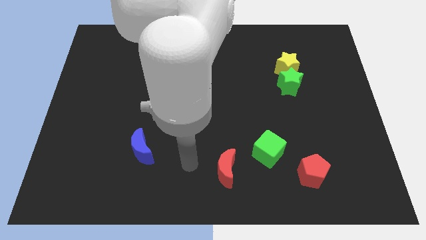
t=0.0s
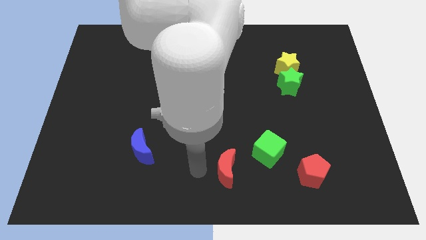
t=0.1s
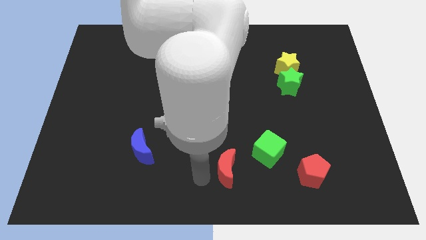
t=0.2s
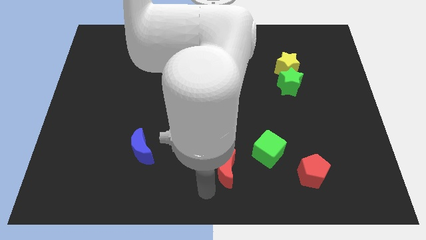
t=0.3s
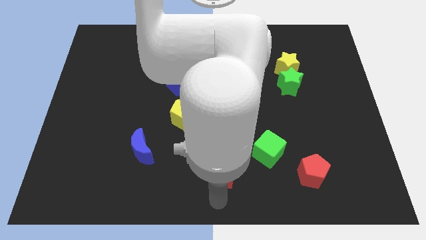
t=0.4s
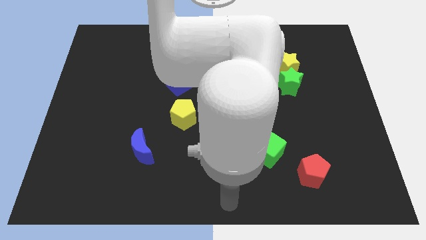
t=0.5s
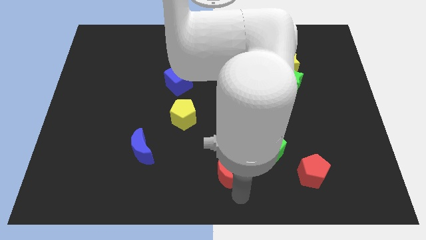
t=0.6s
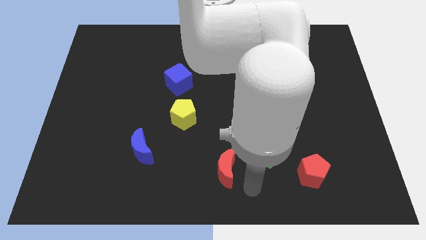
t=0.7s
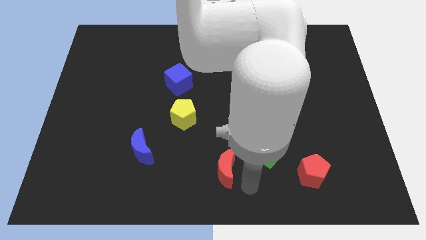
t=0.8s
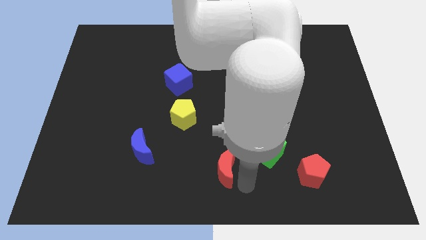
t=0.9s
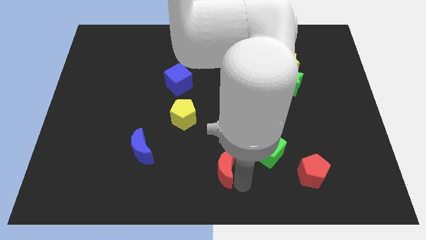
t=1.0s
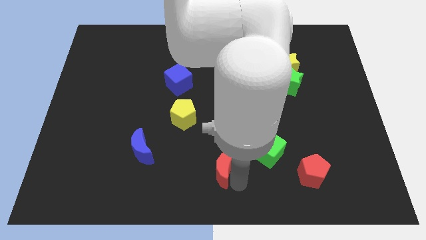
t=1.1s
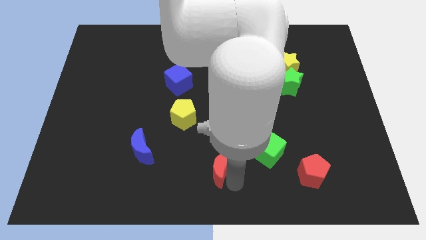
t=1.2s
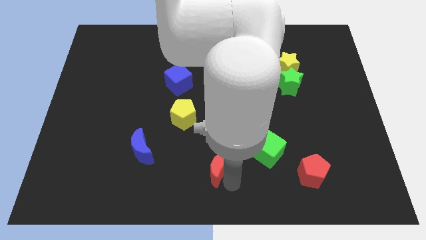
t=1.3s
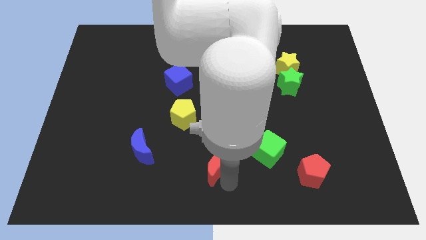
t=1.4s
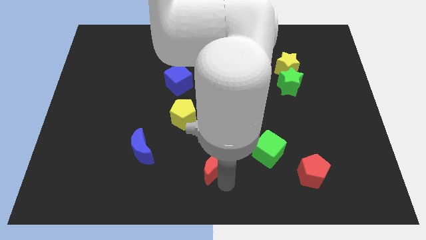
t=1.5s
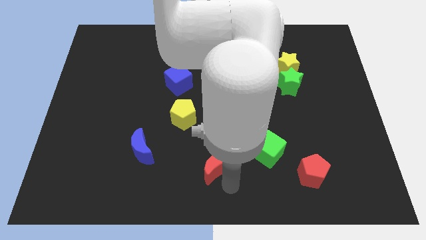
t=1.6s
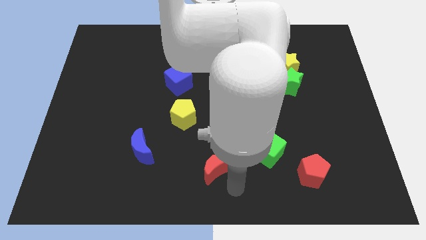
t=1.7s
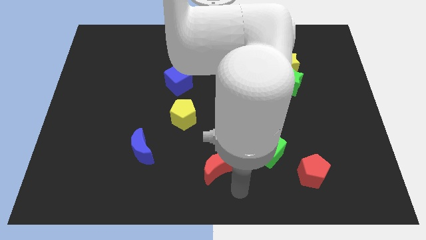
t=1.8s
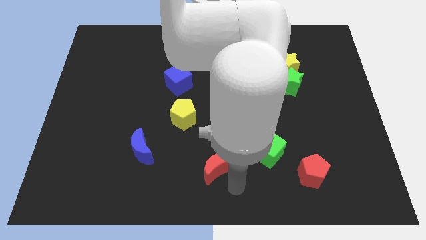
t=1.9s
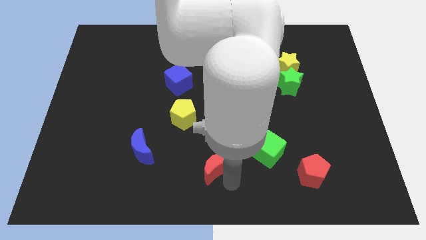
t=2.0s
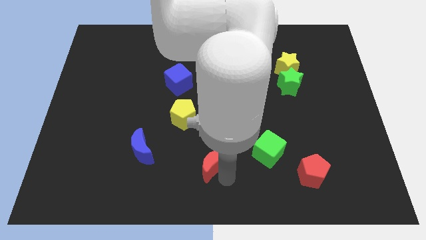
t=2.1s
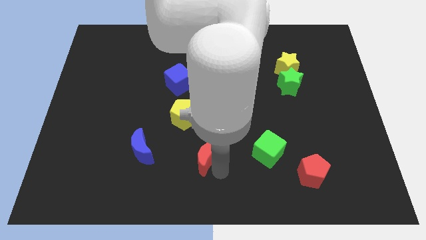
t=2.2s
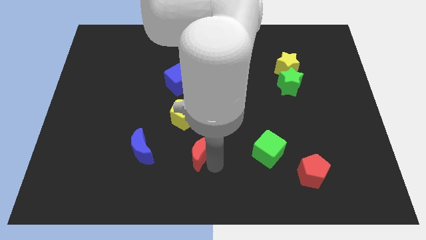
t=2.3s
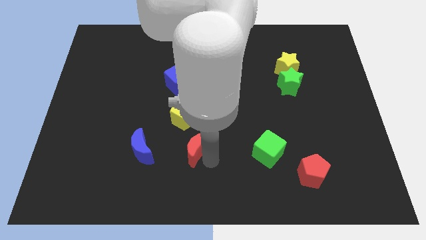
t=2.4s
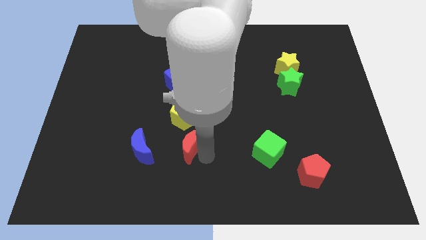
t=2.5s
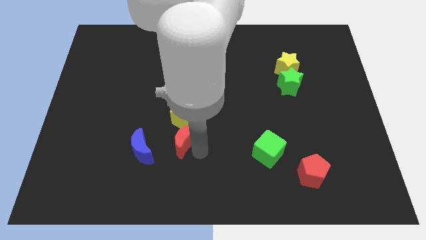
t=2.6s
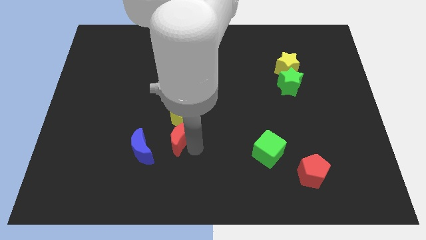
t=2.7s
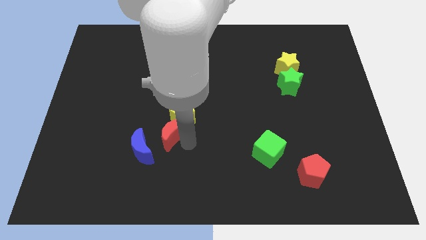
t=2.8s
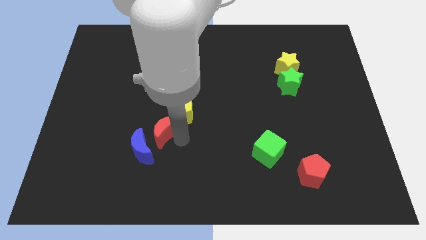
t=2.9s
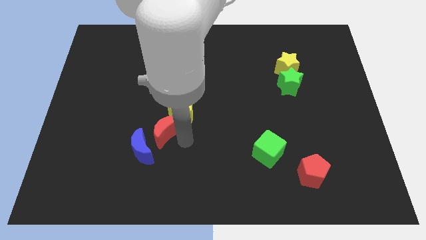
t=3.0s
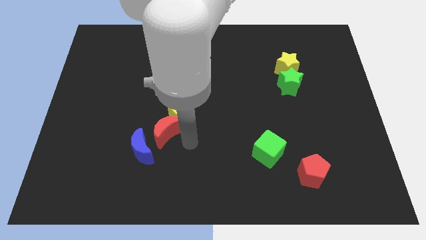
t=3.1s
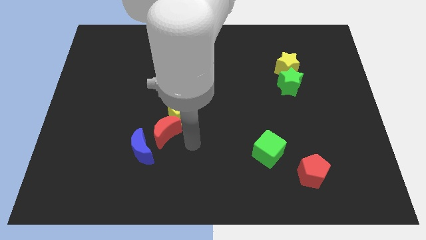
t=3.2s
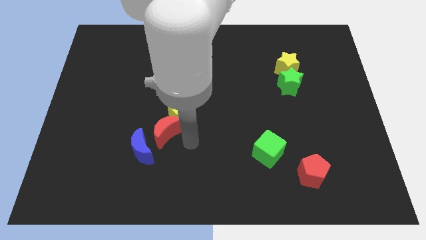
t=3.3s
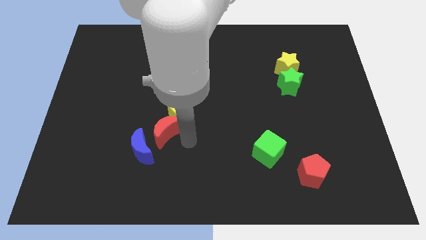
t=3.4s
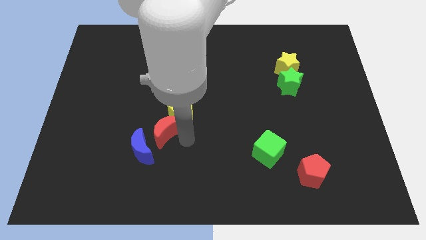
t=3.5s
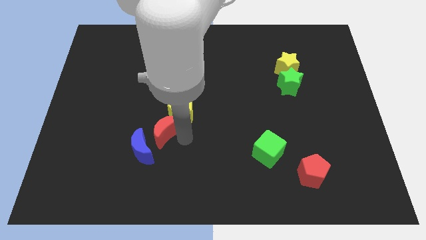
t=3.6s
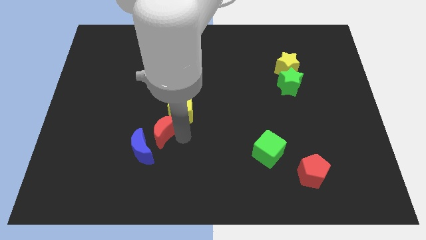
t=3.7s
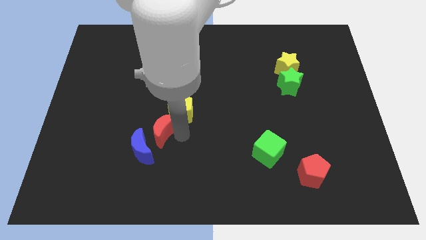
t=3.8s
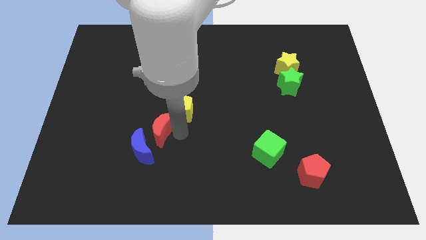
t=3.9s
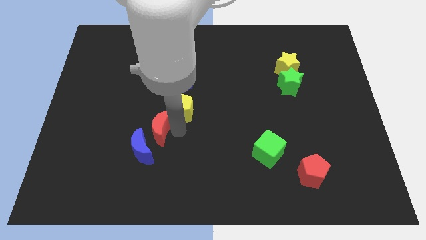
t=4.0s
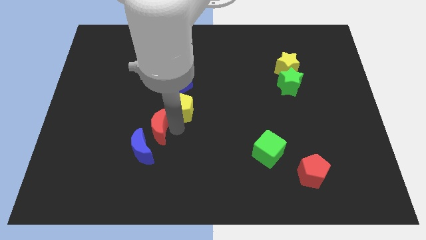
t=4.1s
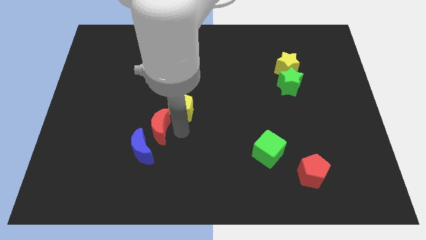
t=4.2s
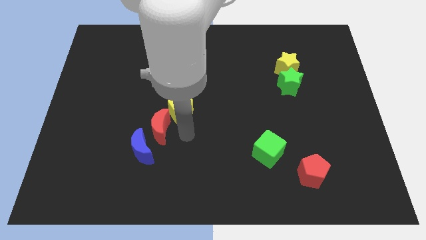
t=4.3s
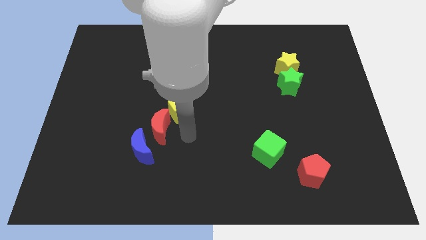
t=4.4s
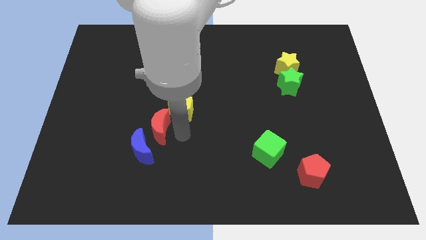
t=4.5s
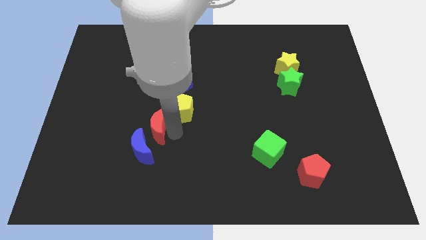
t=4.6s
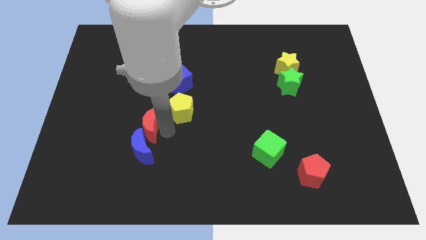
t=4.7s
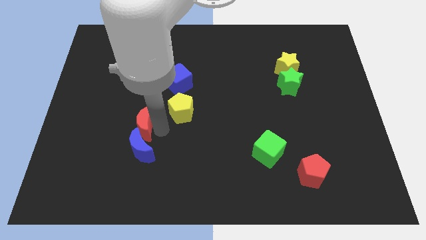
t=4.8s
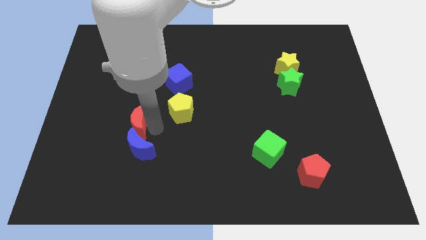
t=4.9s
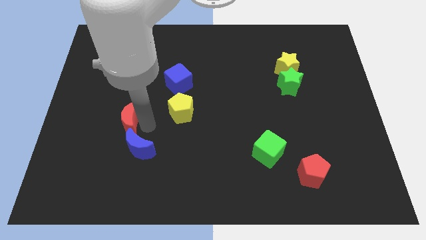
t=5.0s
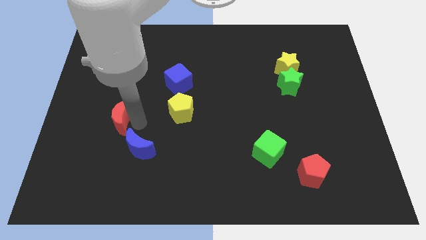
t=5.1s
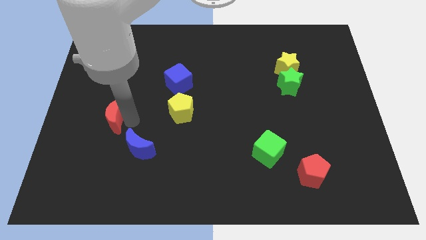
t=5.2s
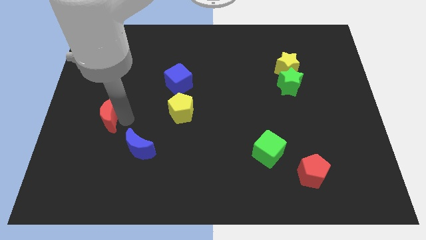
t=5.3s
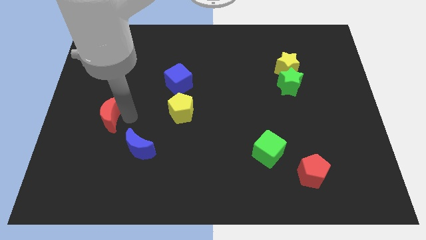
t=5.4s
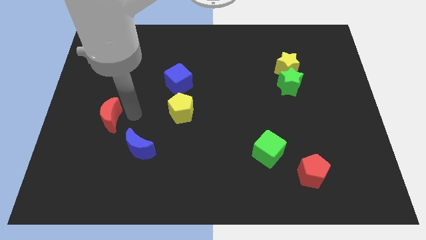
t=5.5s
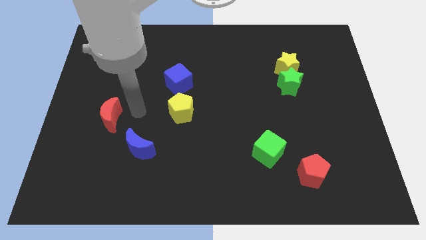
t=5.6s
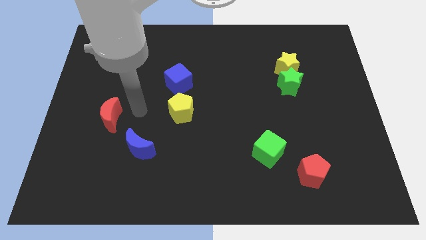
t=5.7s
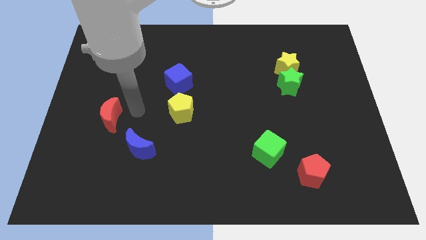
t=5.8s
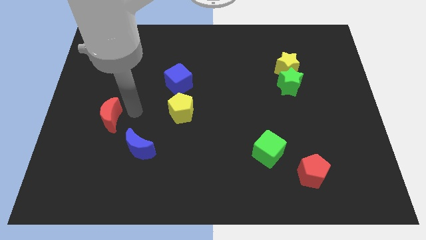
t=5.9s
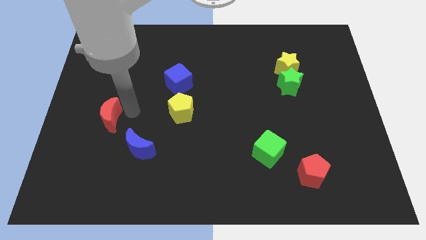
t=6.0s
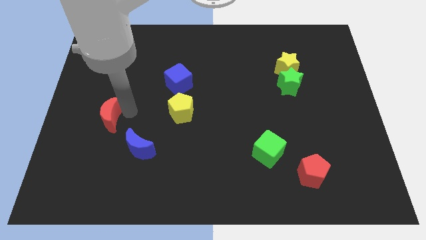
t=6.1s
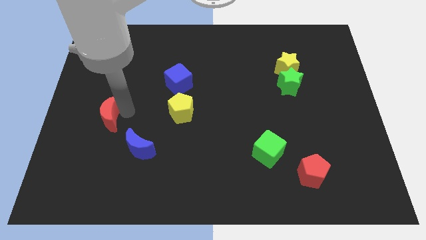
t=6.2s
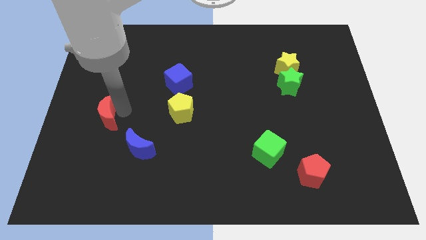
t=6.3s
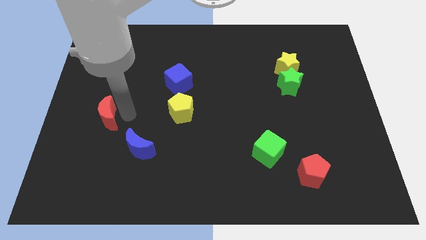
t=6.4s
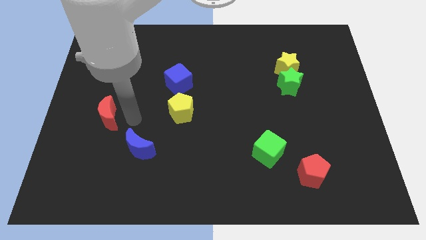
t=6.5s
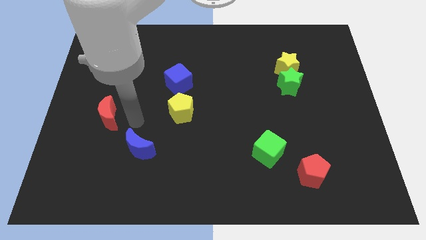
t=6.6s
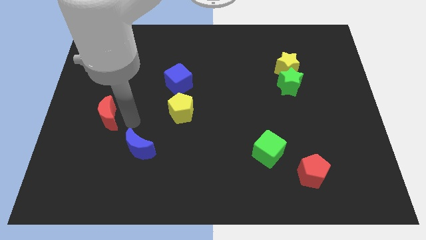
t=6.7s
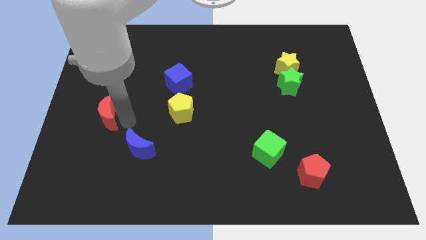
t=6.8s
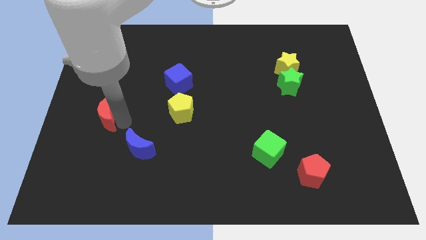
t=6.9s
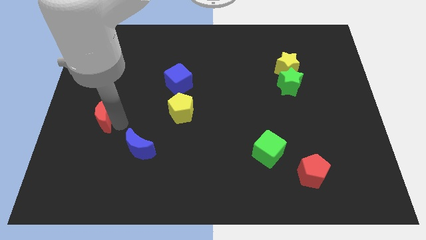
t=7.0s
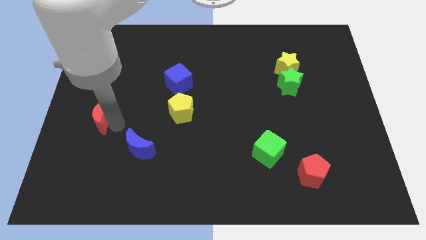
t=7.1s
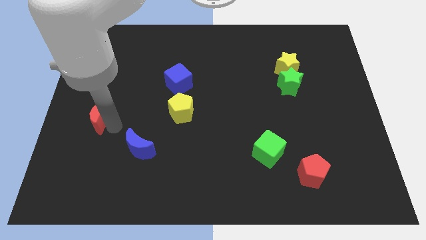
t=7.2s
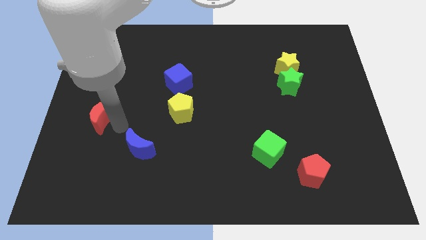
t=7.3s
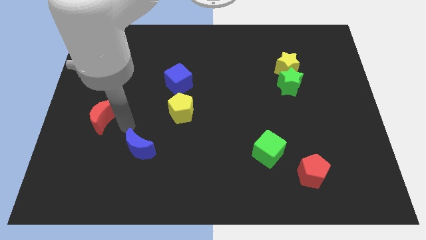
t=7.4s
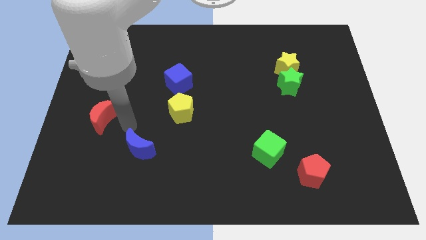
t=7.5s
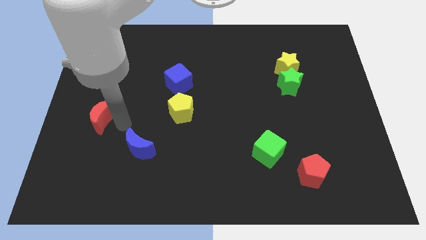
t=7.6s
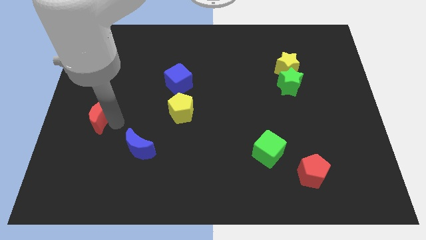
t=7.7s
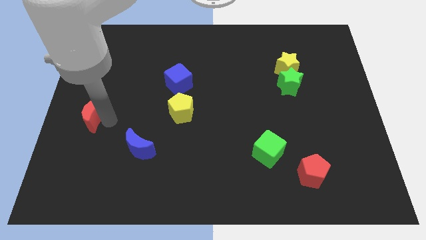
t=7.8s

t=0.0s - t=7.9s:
move the red moon to the left side of the board
